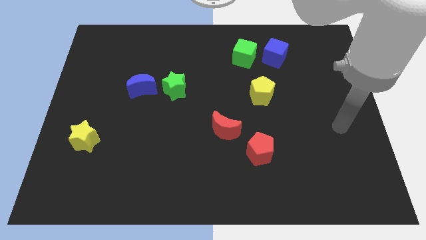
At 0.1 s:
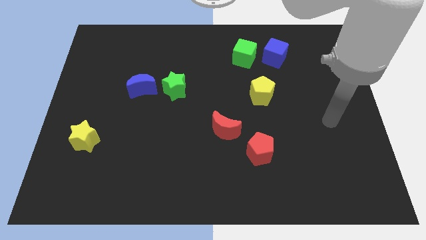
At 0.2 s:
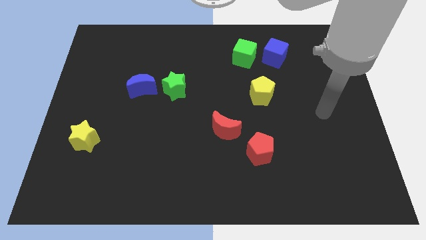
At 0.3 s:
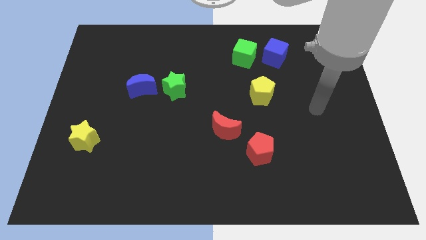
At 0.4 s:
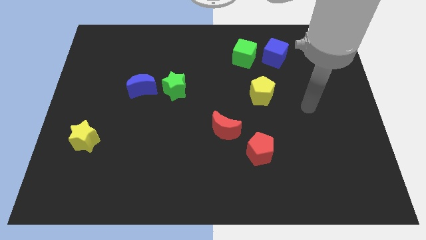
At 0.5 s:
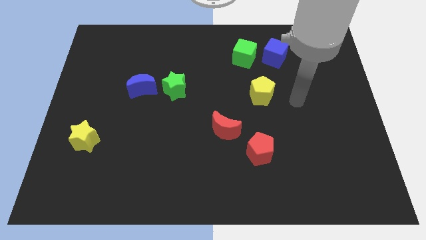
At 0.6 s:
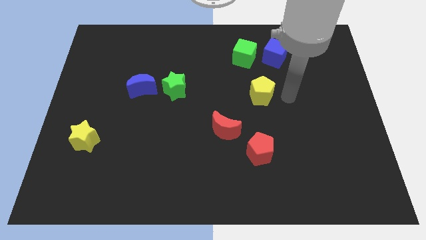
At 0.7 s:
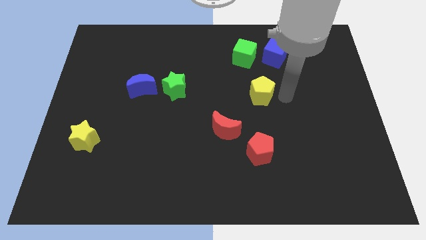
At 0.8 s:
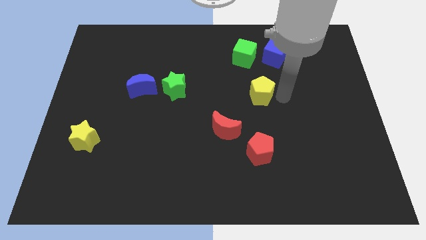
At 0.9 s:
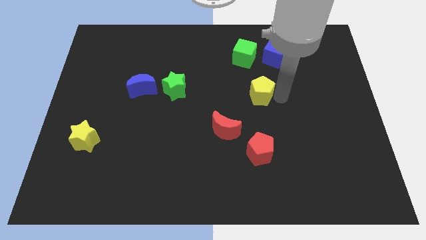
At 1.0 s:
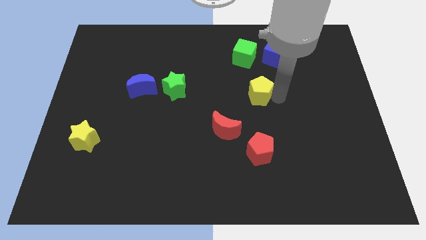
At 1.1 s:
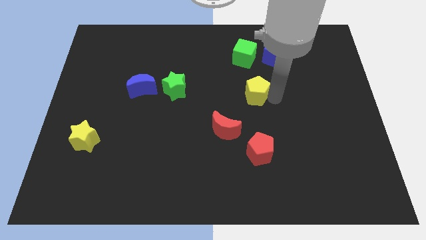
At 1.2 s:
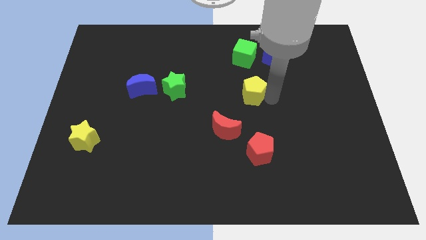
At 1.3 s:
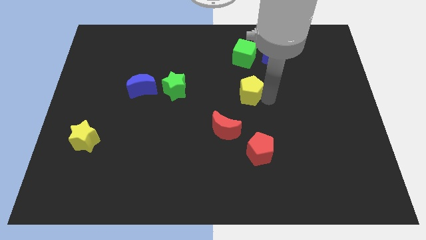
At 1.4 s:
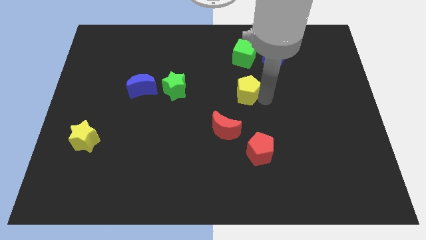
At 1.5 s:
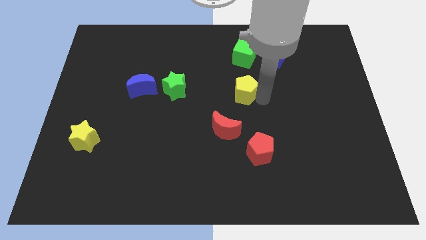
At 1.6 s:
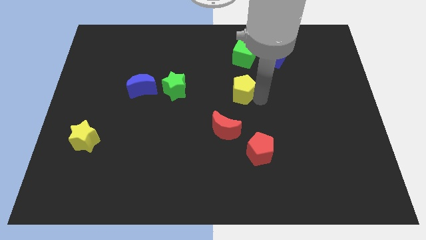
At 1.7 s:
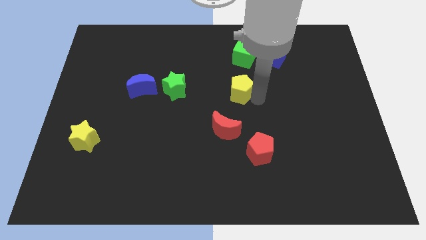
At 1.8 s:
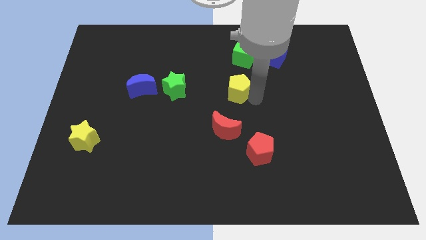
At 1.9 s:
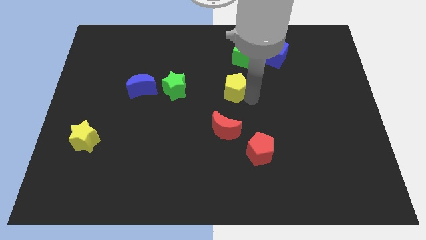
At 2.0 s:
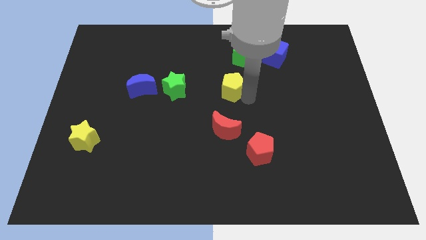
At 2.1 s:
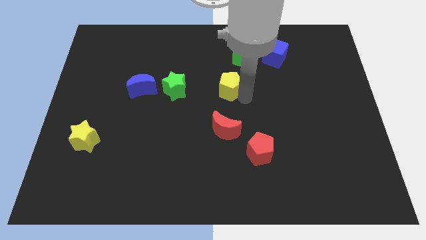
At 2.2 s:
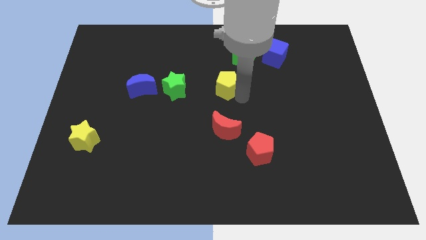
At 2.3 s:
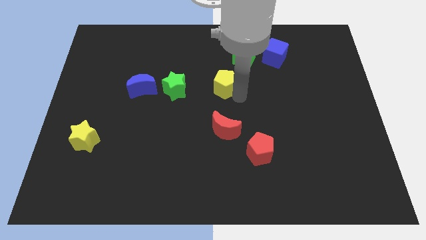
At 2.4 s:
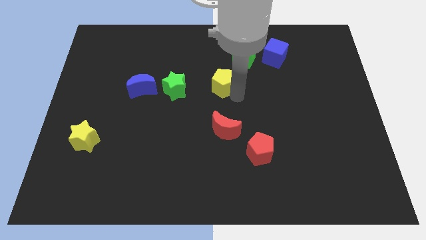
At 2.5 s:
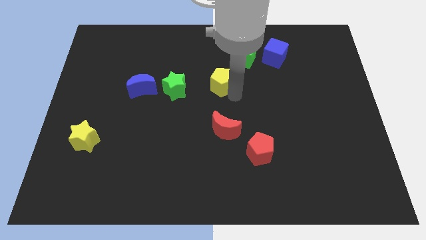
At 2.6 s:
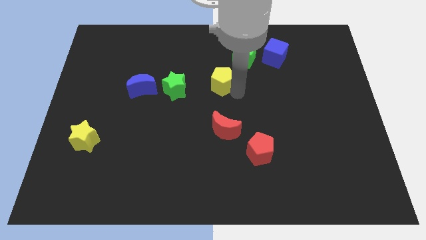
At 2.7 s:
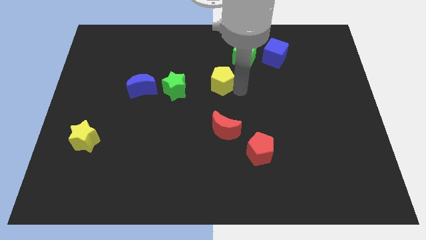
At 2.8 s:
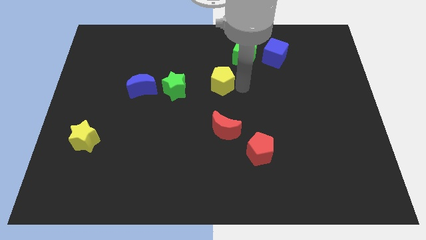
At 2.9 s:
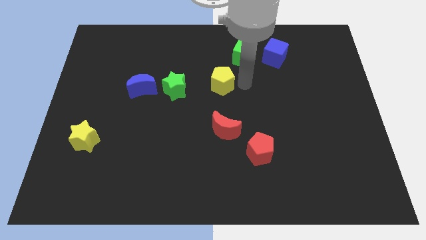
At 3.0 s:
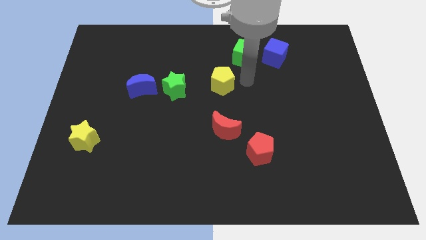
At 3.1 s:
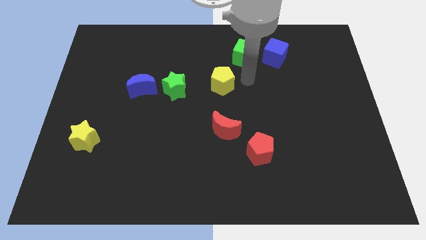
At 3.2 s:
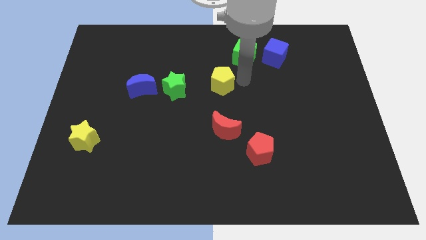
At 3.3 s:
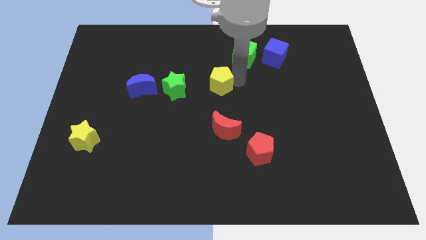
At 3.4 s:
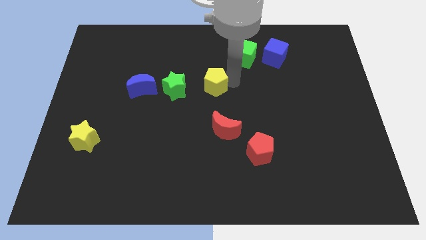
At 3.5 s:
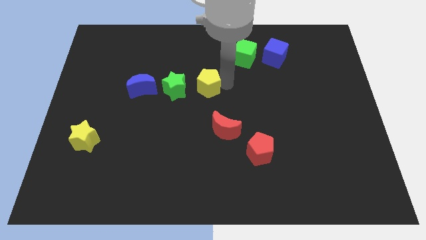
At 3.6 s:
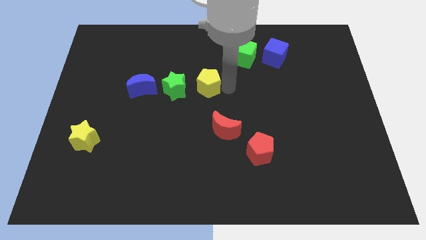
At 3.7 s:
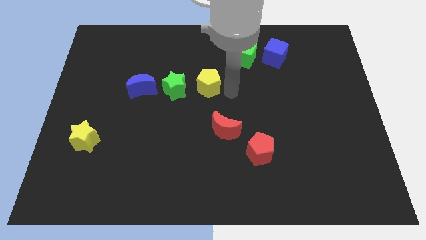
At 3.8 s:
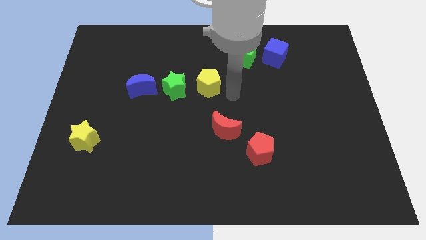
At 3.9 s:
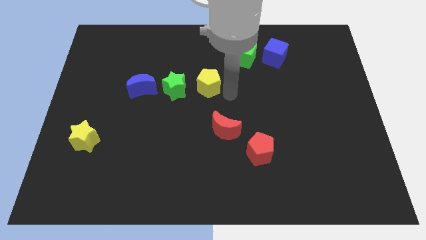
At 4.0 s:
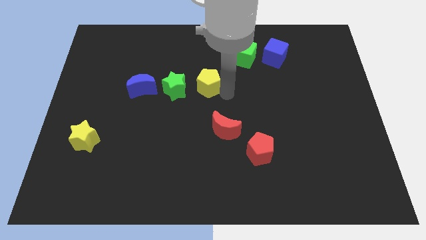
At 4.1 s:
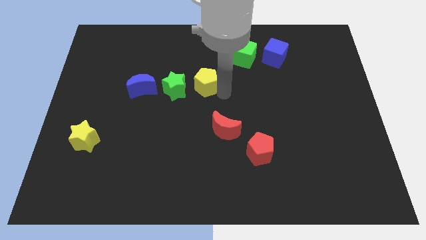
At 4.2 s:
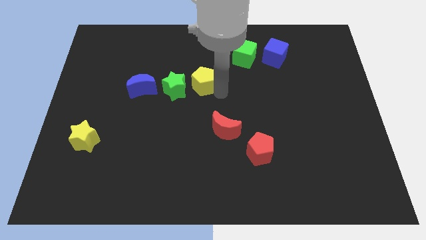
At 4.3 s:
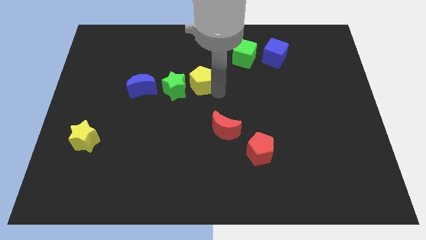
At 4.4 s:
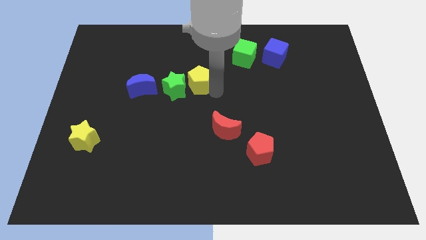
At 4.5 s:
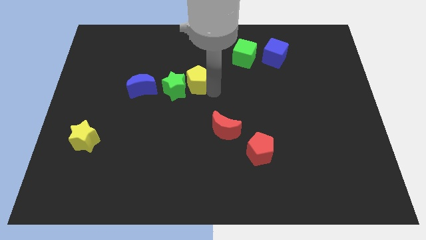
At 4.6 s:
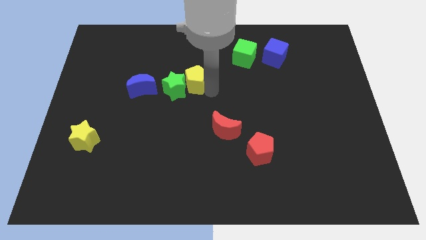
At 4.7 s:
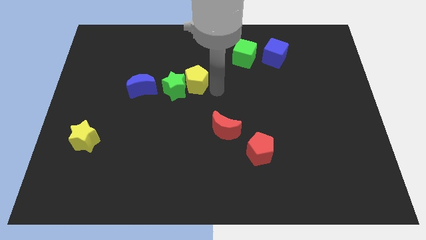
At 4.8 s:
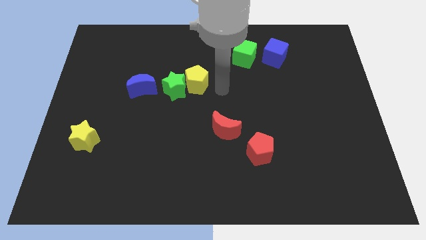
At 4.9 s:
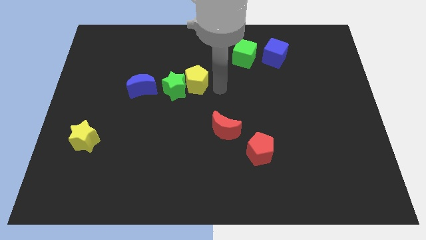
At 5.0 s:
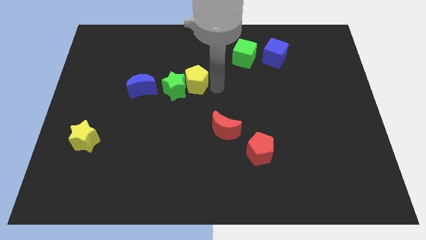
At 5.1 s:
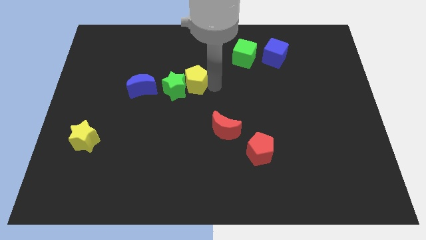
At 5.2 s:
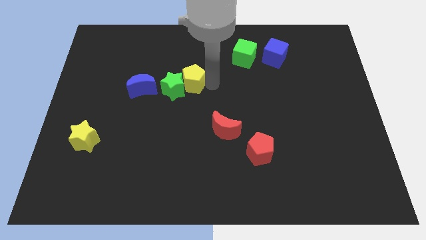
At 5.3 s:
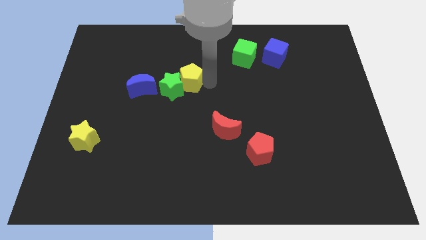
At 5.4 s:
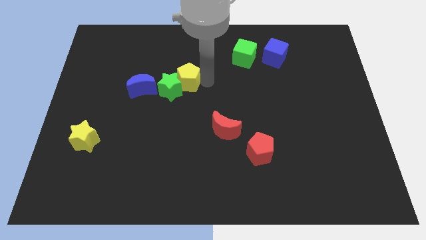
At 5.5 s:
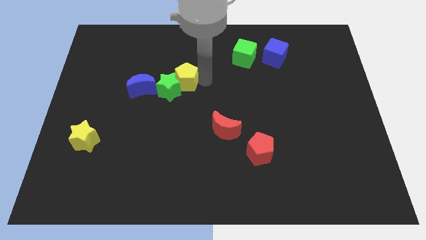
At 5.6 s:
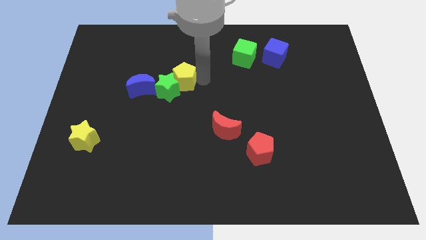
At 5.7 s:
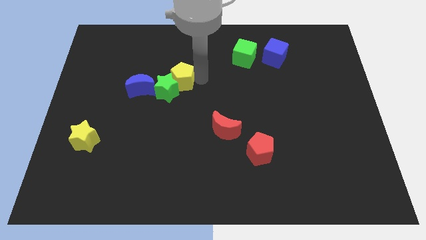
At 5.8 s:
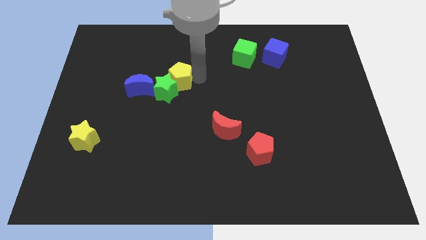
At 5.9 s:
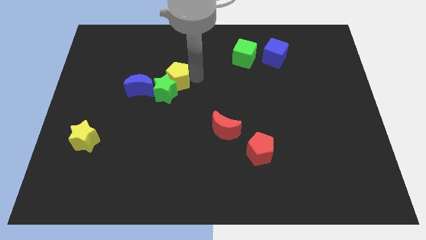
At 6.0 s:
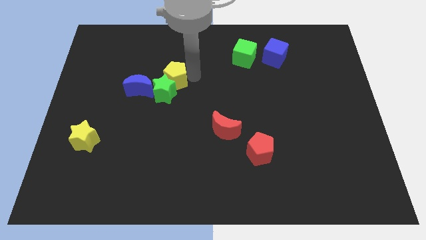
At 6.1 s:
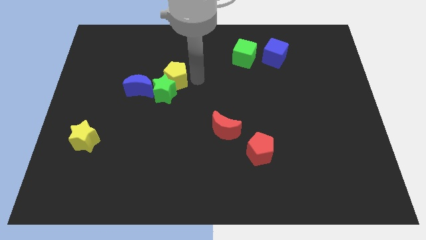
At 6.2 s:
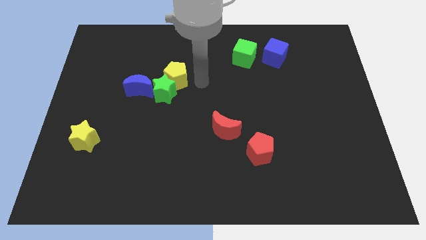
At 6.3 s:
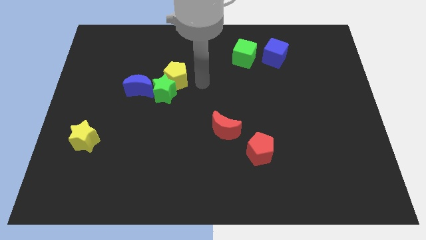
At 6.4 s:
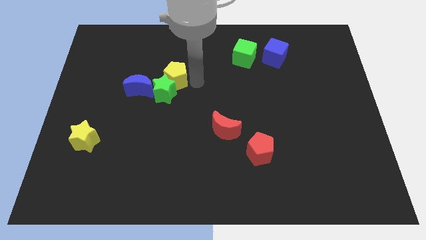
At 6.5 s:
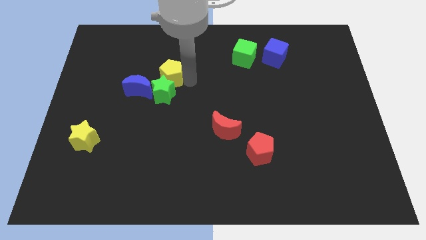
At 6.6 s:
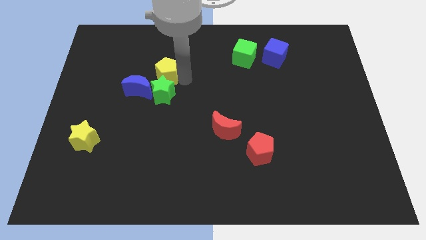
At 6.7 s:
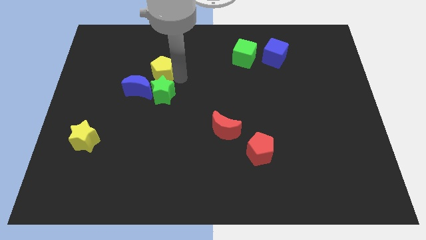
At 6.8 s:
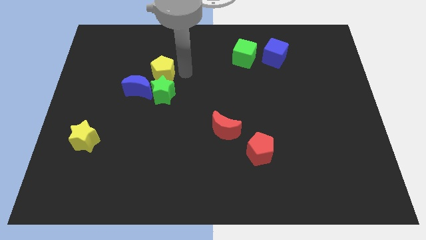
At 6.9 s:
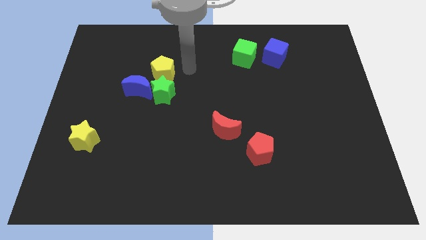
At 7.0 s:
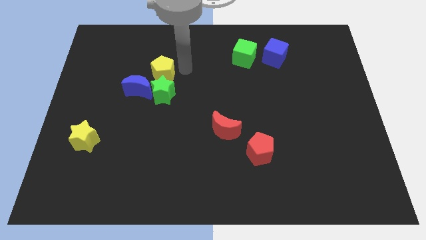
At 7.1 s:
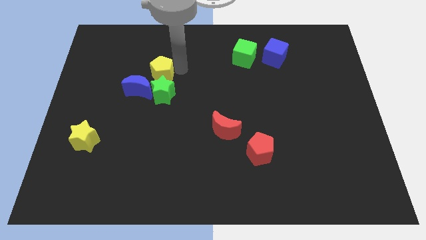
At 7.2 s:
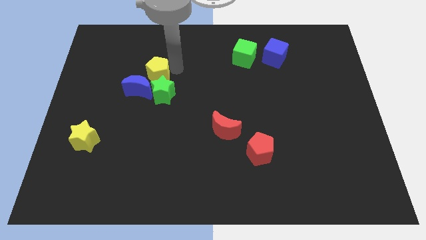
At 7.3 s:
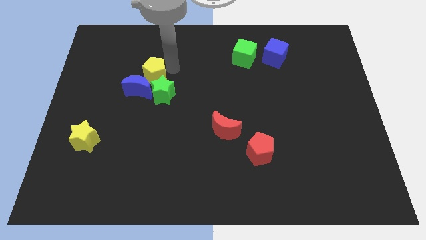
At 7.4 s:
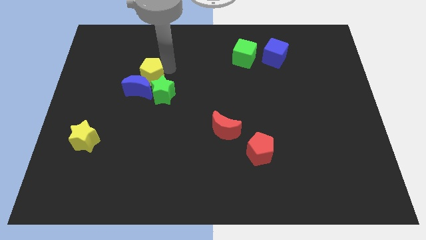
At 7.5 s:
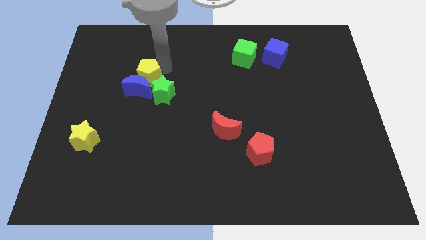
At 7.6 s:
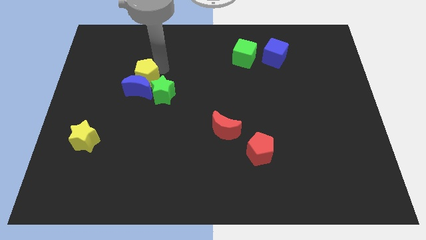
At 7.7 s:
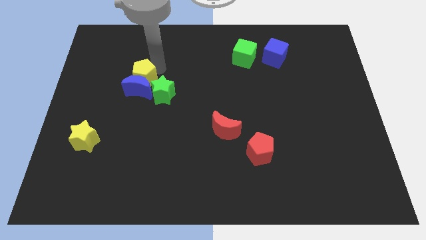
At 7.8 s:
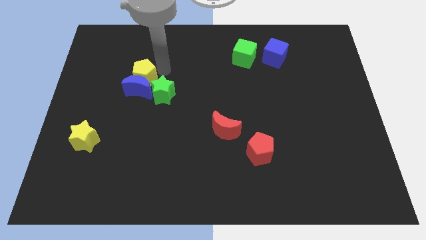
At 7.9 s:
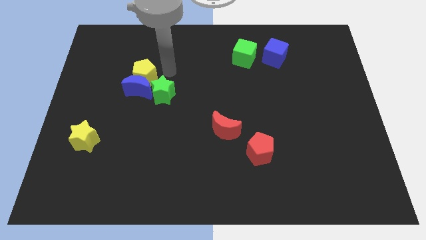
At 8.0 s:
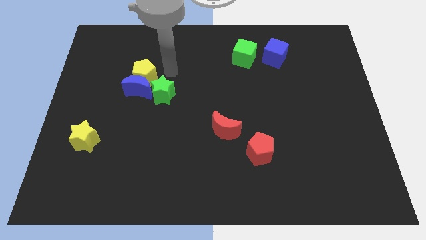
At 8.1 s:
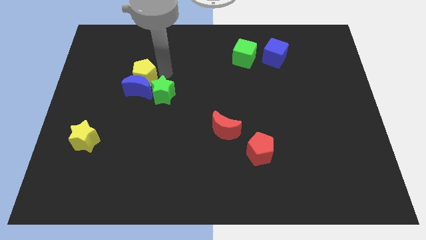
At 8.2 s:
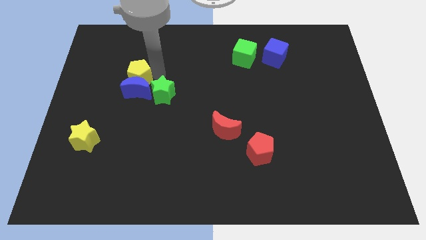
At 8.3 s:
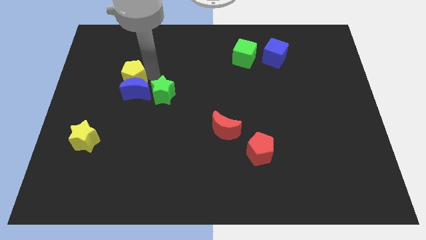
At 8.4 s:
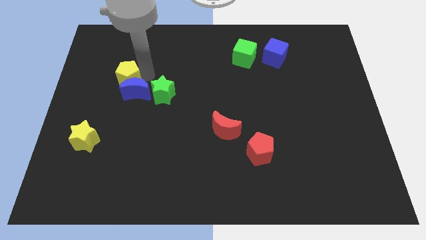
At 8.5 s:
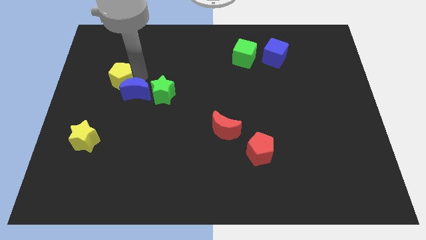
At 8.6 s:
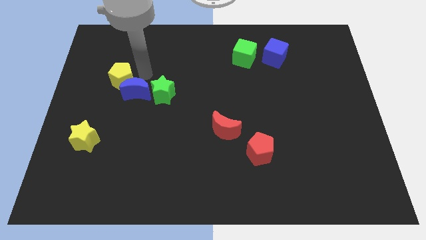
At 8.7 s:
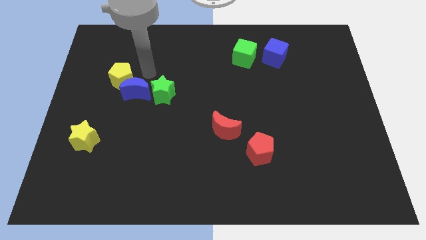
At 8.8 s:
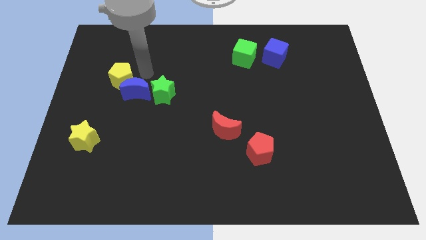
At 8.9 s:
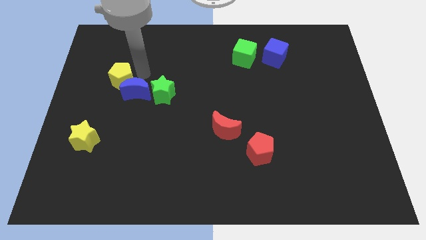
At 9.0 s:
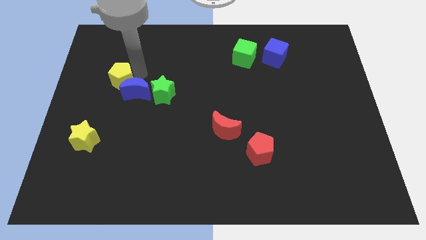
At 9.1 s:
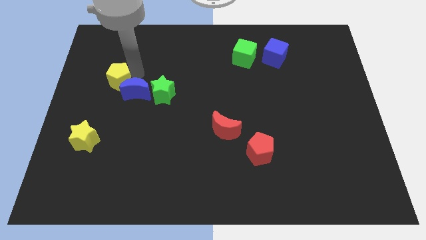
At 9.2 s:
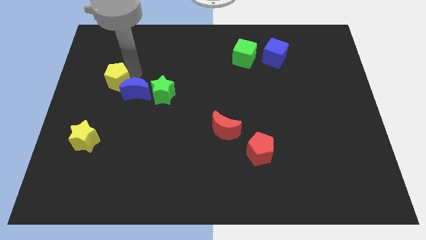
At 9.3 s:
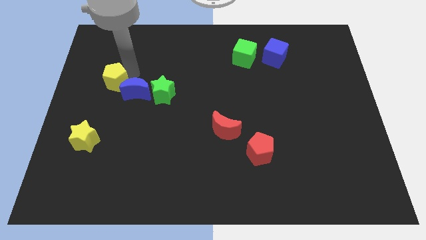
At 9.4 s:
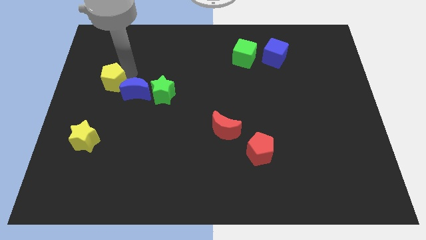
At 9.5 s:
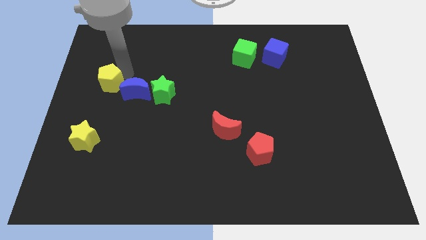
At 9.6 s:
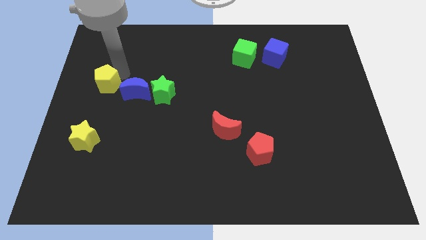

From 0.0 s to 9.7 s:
push the yellow pentagon to the center left
